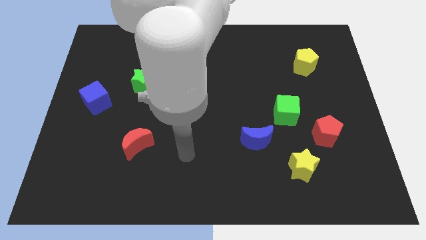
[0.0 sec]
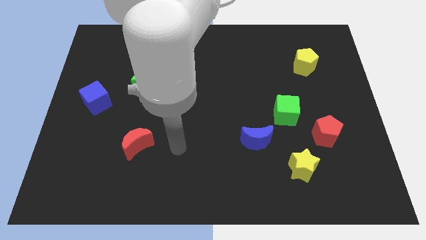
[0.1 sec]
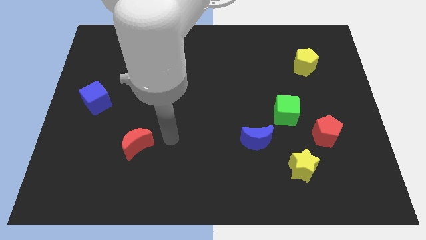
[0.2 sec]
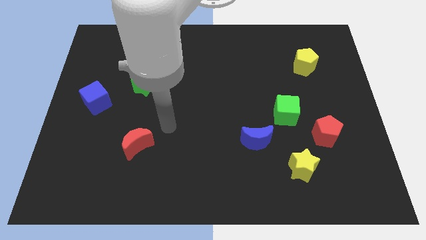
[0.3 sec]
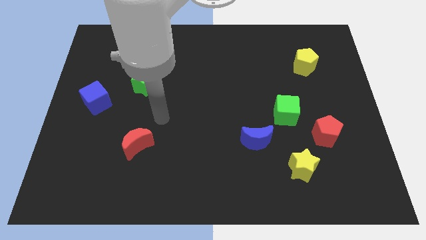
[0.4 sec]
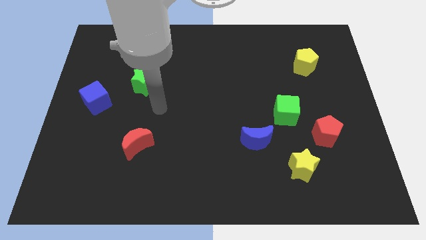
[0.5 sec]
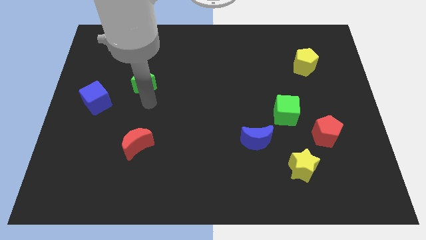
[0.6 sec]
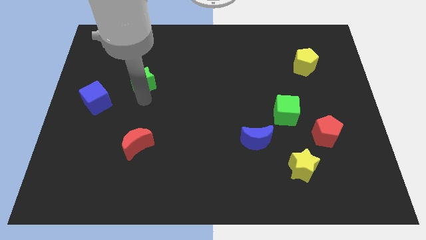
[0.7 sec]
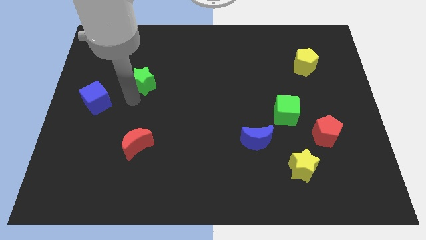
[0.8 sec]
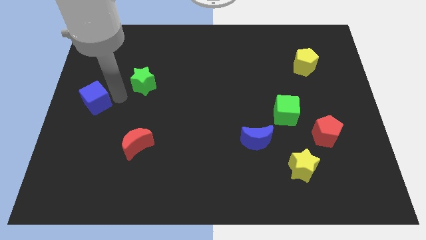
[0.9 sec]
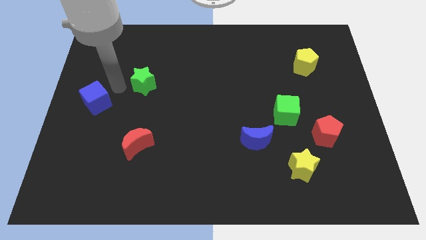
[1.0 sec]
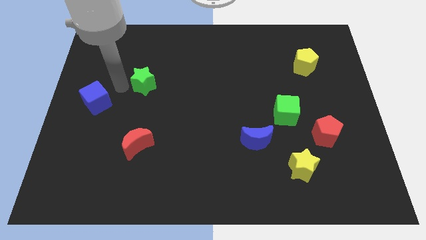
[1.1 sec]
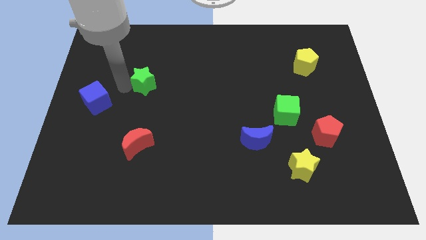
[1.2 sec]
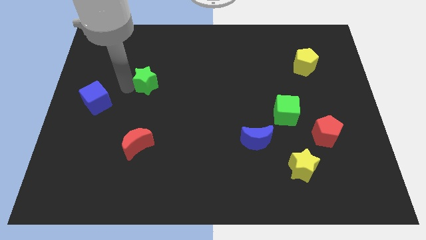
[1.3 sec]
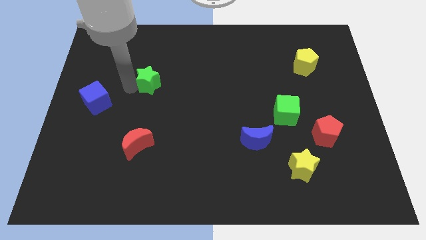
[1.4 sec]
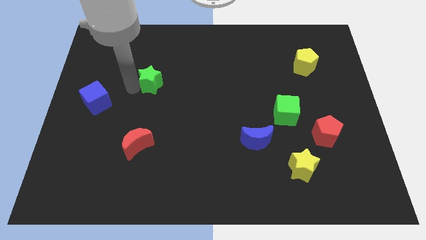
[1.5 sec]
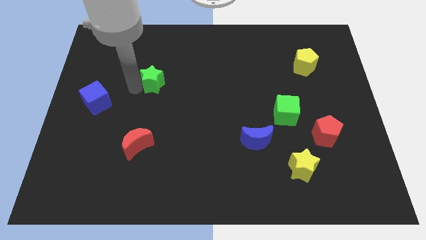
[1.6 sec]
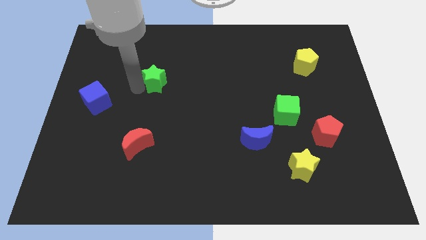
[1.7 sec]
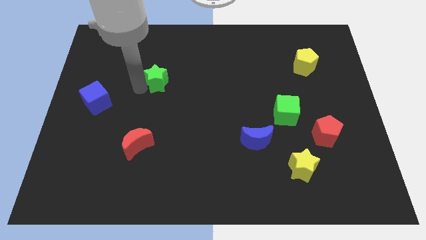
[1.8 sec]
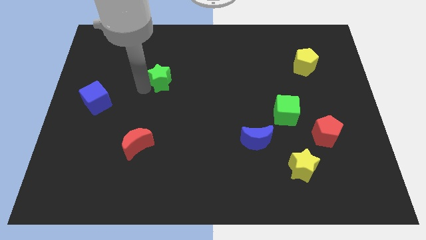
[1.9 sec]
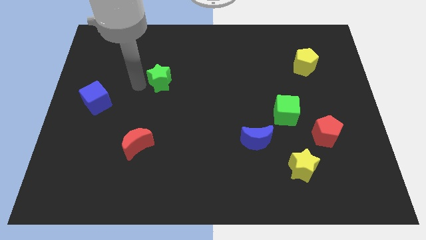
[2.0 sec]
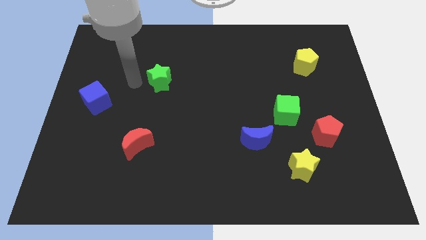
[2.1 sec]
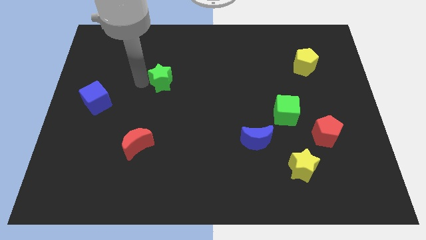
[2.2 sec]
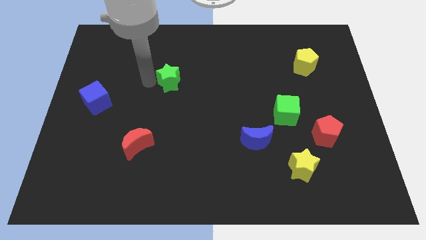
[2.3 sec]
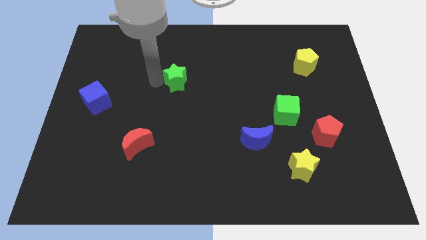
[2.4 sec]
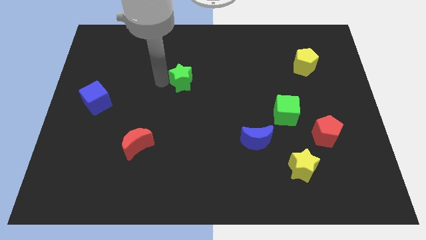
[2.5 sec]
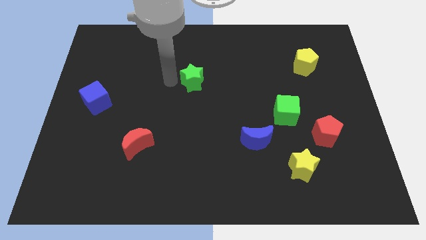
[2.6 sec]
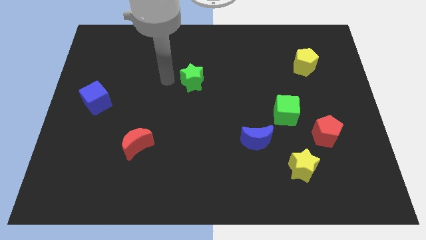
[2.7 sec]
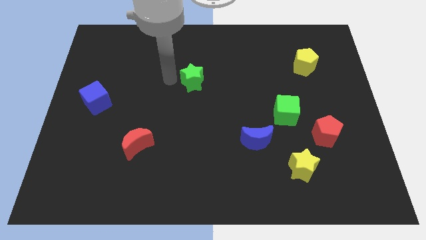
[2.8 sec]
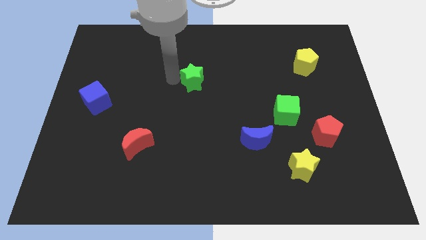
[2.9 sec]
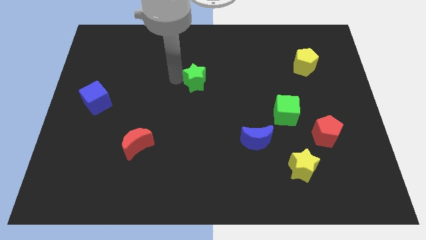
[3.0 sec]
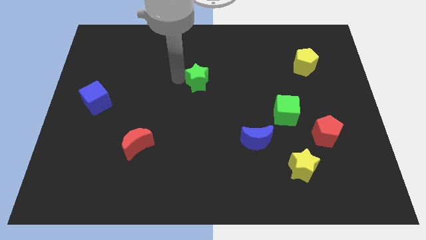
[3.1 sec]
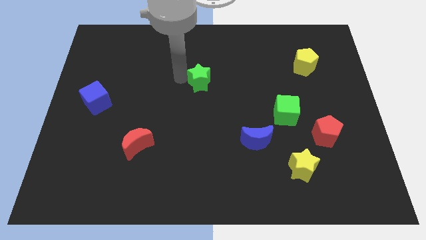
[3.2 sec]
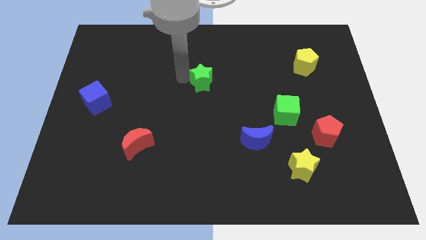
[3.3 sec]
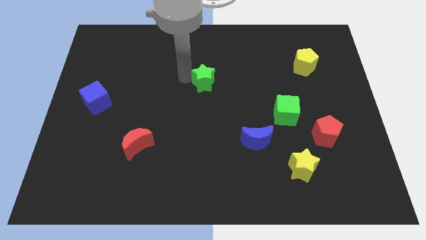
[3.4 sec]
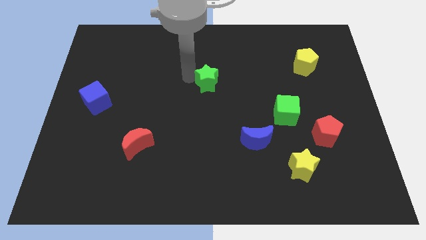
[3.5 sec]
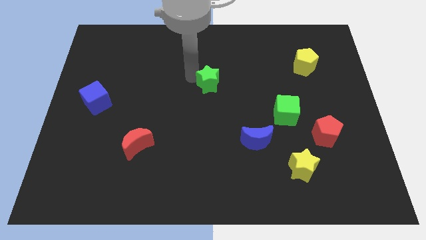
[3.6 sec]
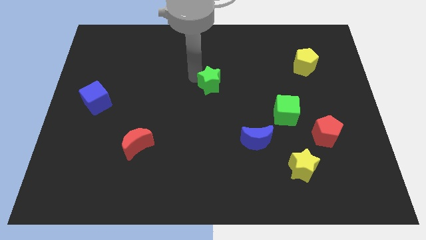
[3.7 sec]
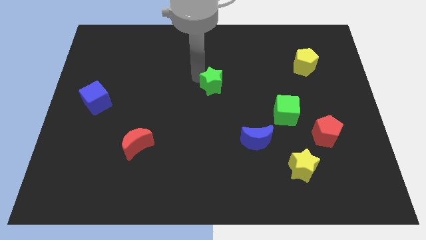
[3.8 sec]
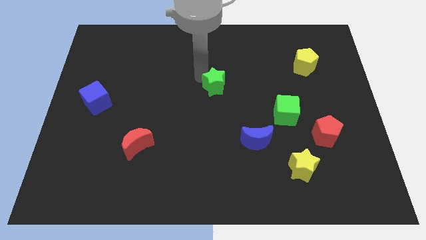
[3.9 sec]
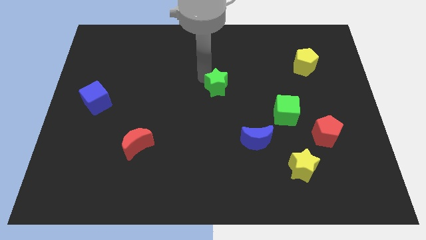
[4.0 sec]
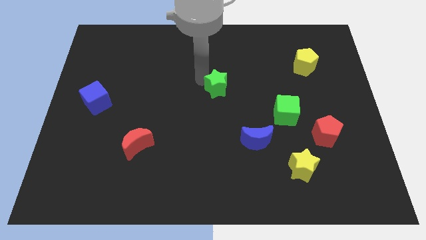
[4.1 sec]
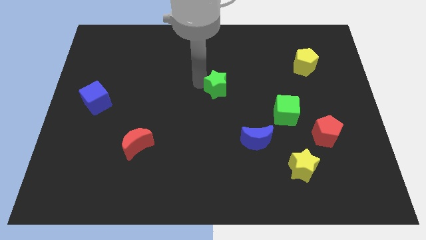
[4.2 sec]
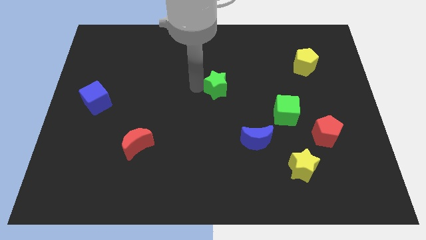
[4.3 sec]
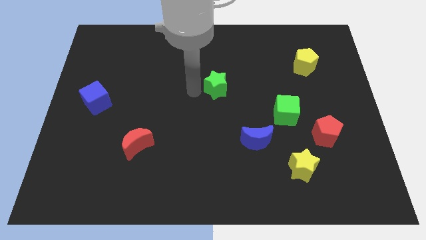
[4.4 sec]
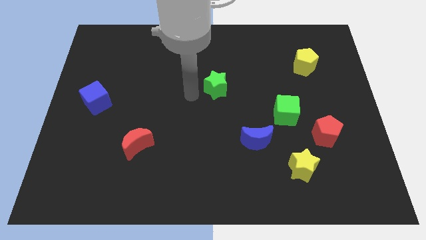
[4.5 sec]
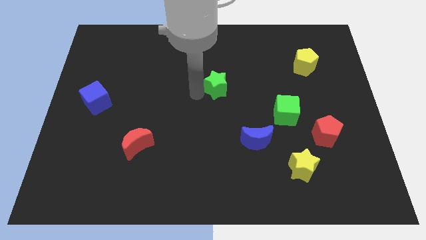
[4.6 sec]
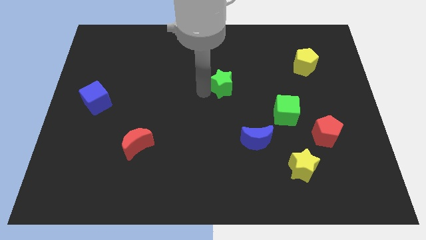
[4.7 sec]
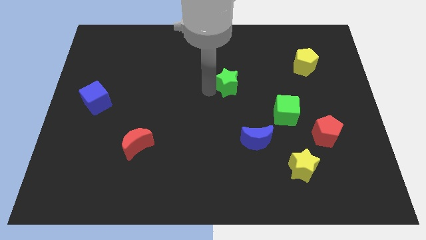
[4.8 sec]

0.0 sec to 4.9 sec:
push the green star right

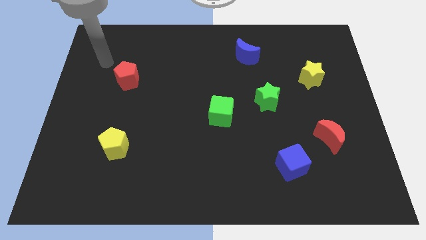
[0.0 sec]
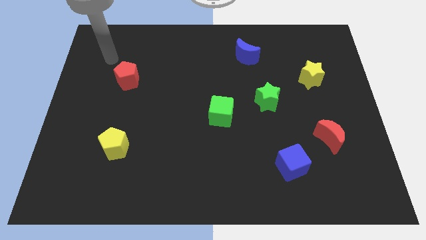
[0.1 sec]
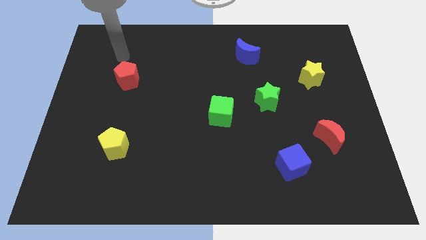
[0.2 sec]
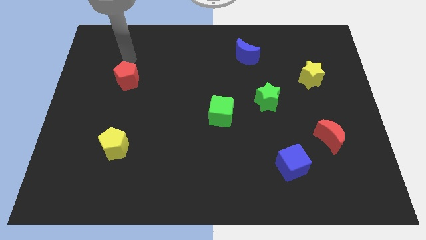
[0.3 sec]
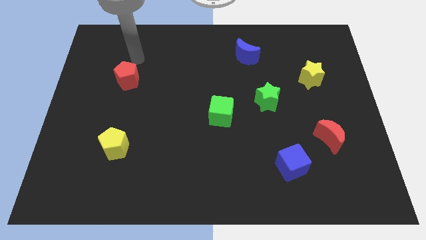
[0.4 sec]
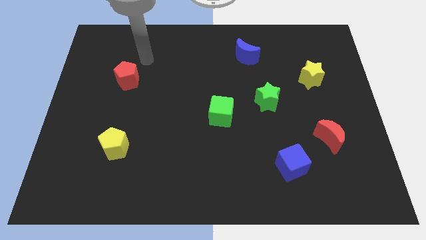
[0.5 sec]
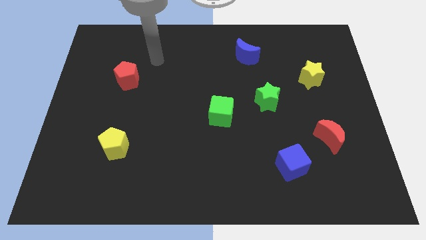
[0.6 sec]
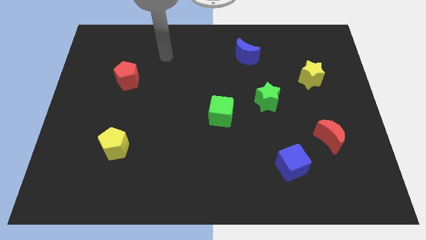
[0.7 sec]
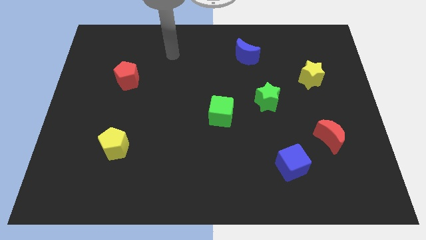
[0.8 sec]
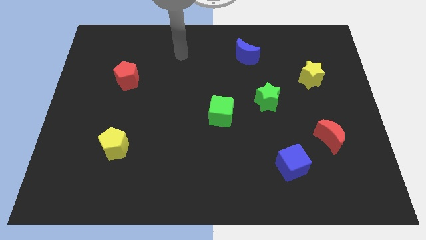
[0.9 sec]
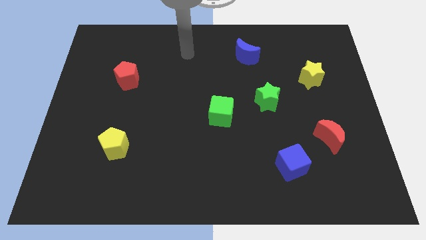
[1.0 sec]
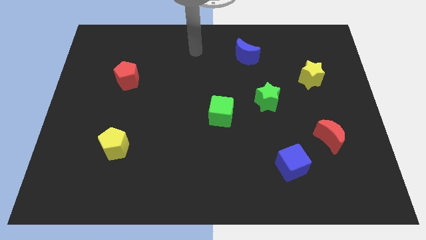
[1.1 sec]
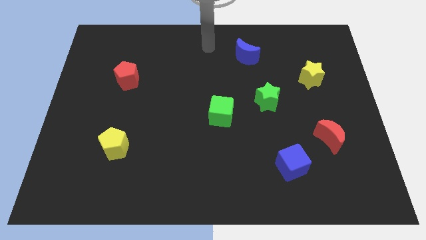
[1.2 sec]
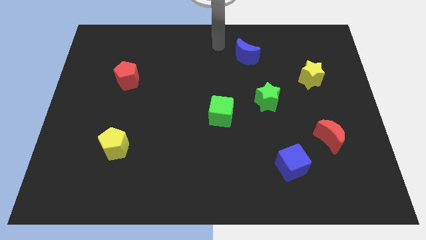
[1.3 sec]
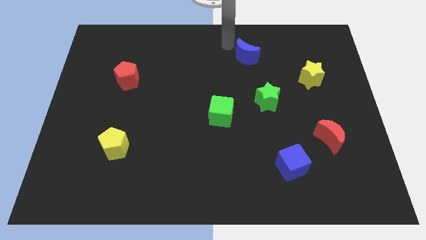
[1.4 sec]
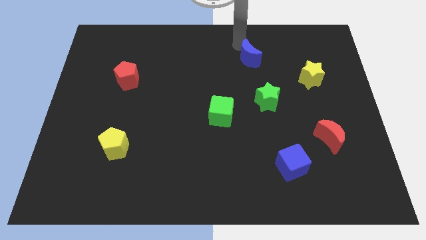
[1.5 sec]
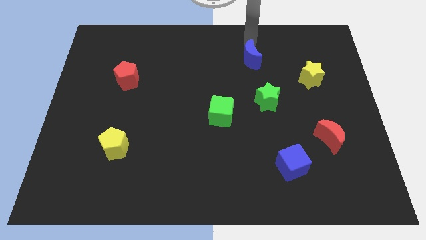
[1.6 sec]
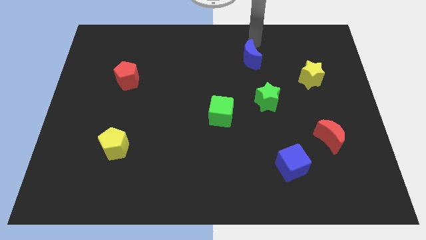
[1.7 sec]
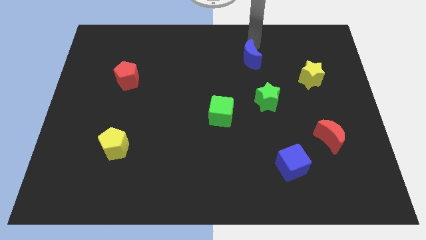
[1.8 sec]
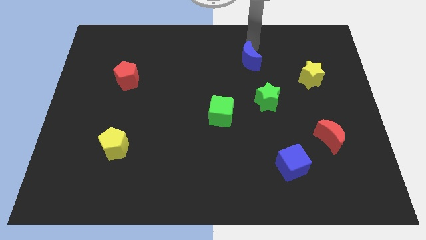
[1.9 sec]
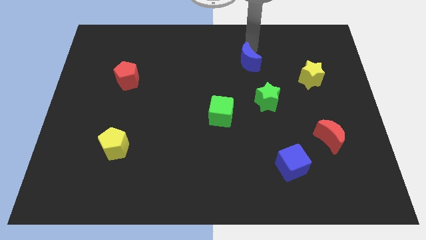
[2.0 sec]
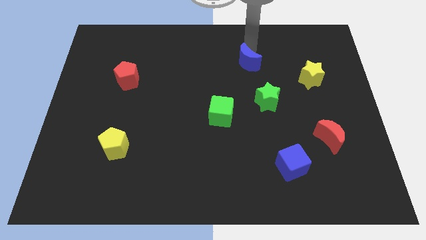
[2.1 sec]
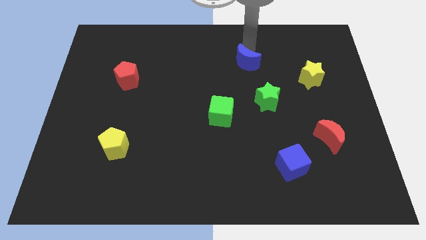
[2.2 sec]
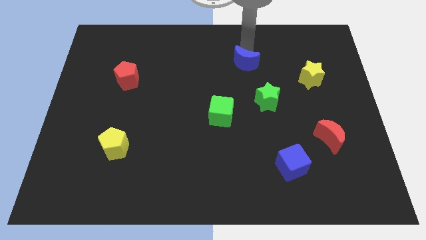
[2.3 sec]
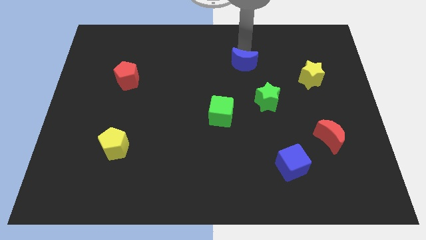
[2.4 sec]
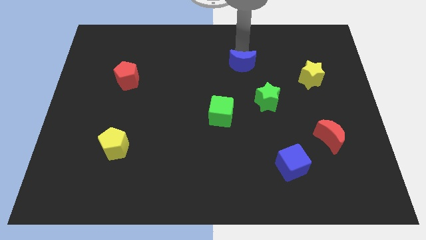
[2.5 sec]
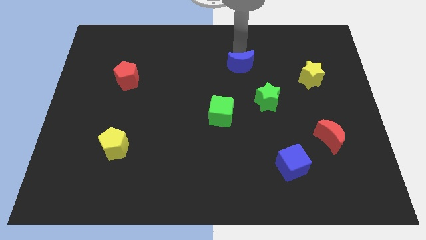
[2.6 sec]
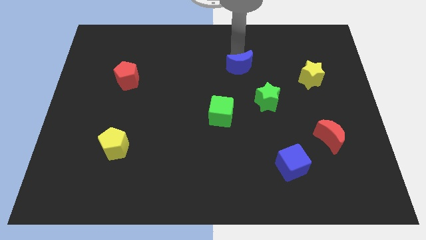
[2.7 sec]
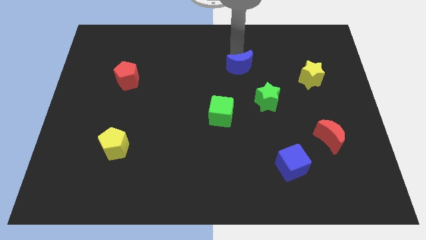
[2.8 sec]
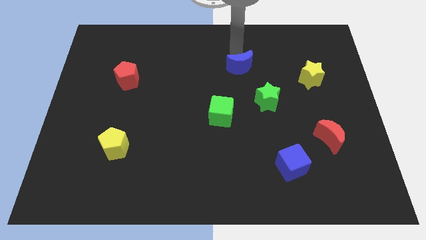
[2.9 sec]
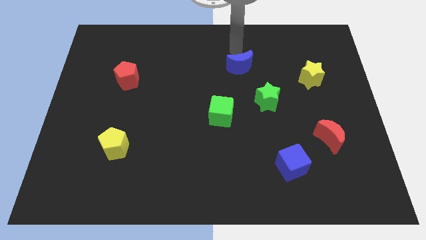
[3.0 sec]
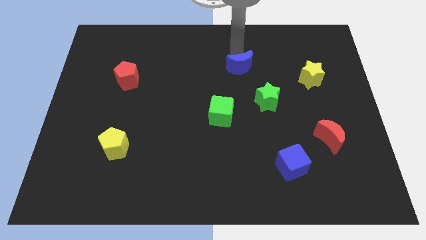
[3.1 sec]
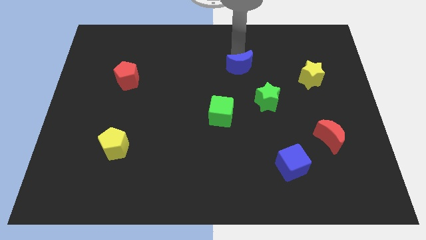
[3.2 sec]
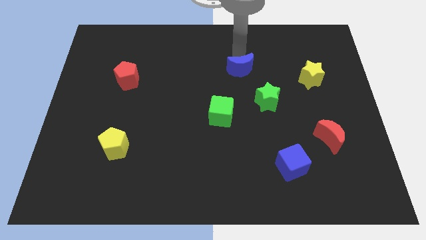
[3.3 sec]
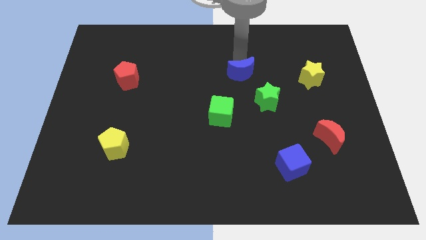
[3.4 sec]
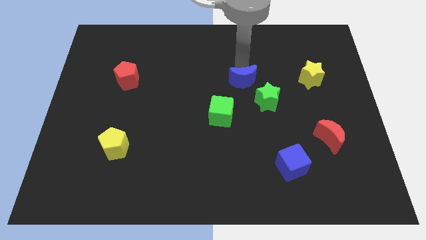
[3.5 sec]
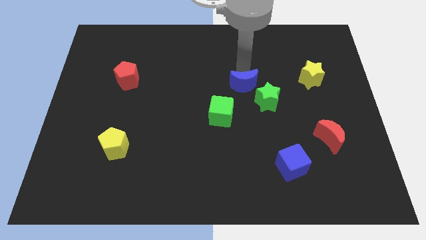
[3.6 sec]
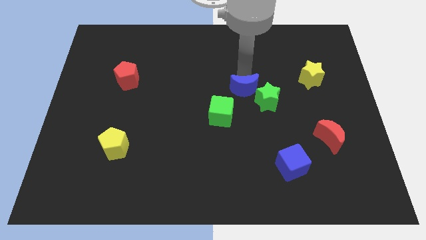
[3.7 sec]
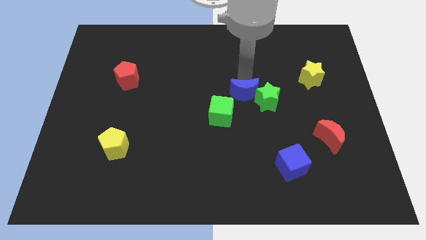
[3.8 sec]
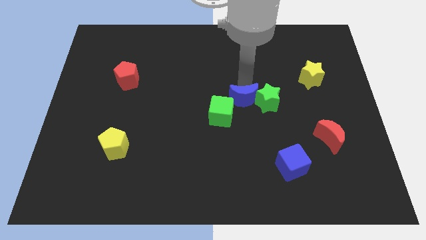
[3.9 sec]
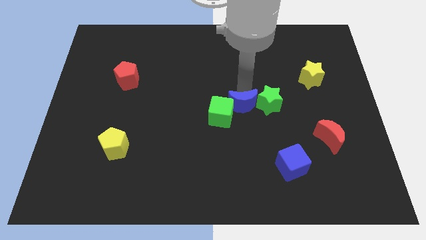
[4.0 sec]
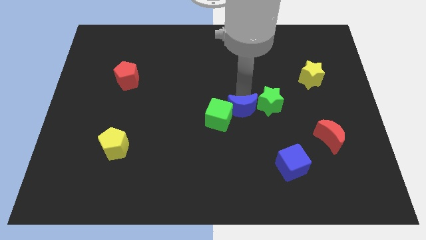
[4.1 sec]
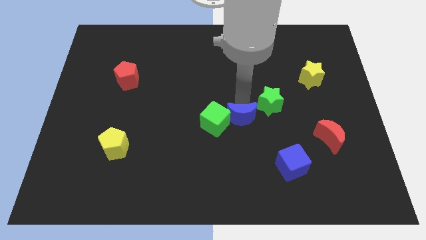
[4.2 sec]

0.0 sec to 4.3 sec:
slide the blue moon downwards
